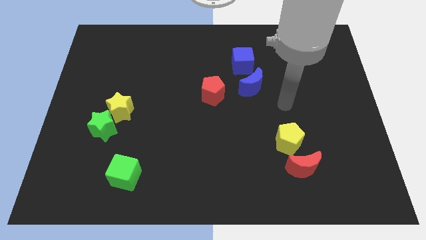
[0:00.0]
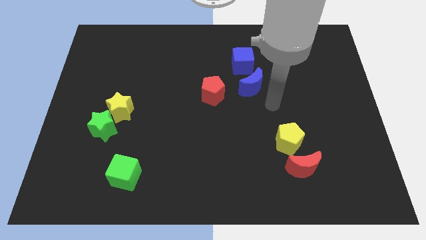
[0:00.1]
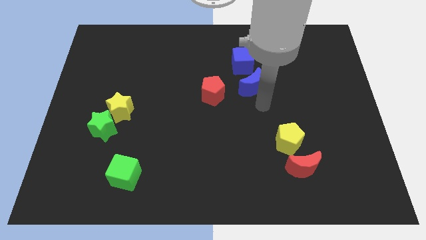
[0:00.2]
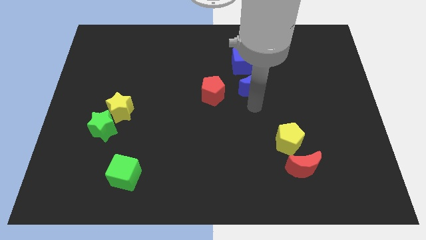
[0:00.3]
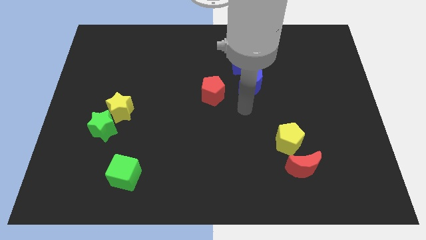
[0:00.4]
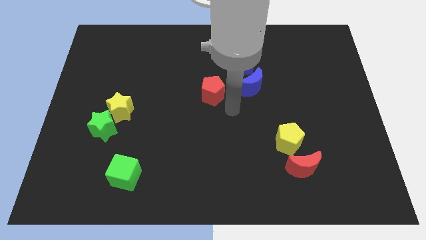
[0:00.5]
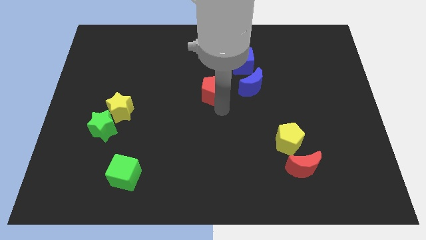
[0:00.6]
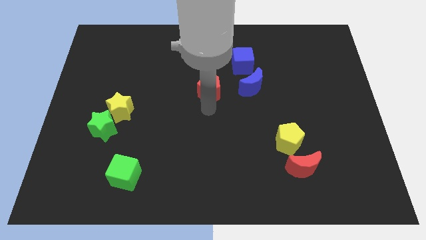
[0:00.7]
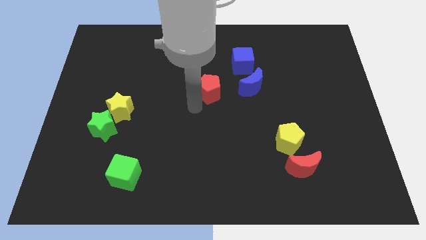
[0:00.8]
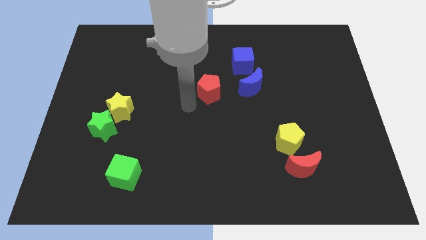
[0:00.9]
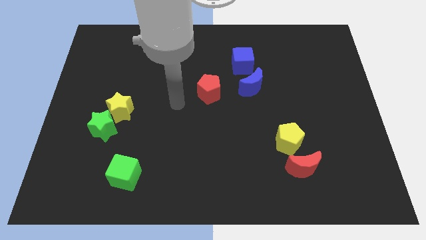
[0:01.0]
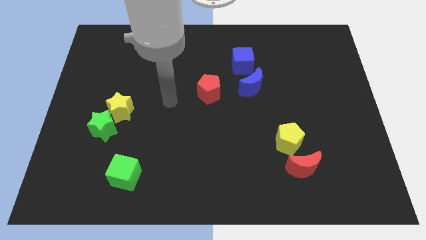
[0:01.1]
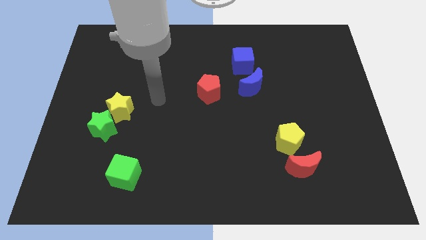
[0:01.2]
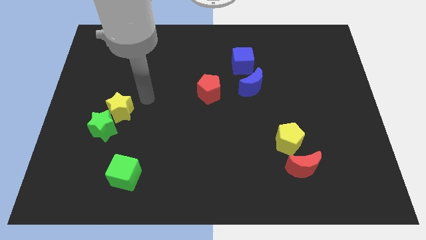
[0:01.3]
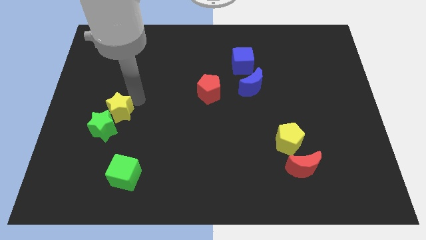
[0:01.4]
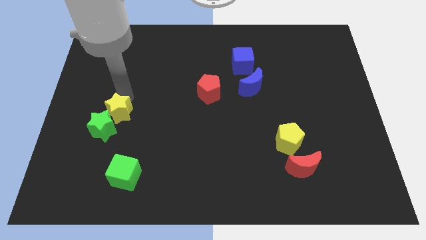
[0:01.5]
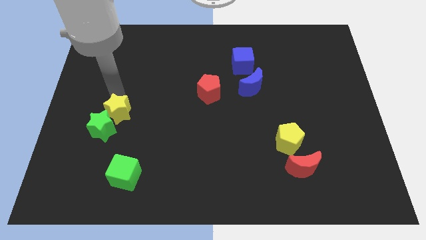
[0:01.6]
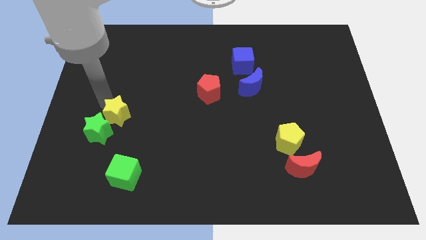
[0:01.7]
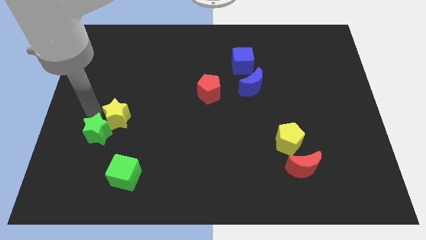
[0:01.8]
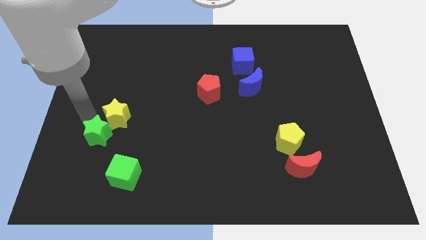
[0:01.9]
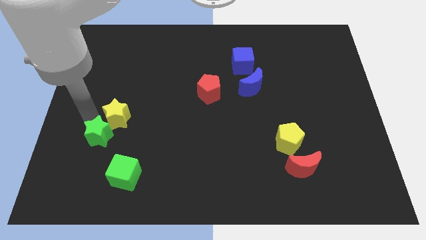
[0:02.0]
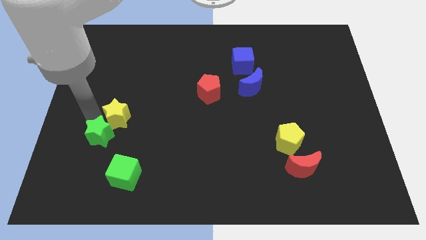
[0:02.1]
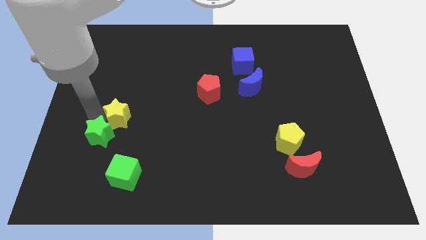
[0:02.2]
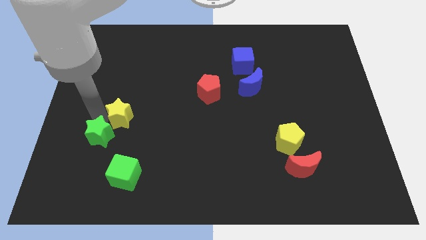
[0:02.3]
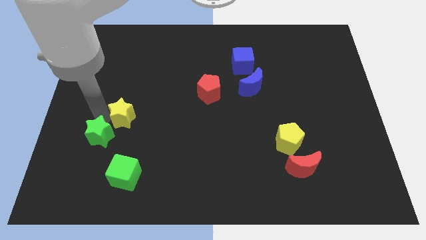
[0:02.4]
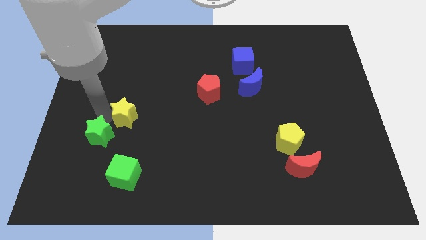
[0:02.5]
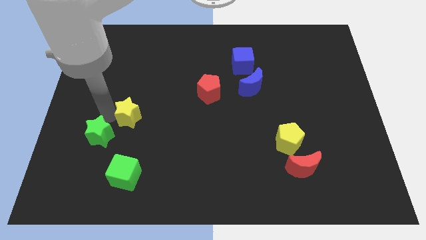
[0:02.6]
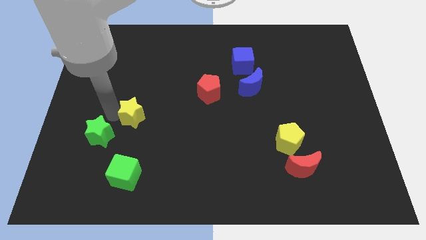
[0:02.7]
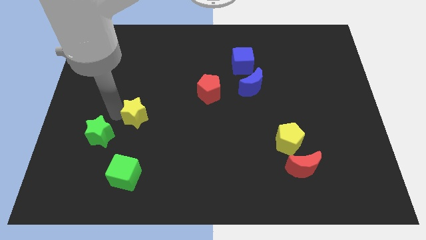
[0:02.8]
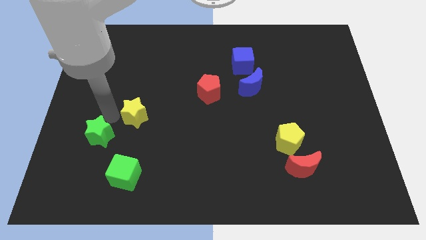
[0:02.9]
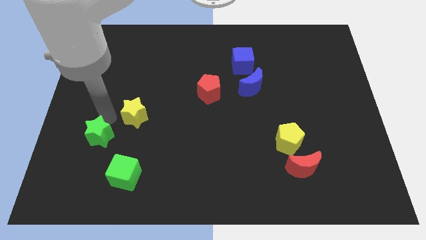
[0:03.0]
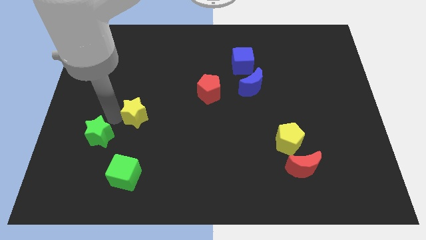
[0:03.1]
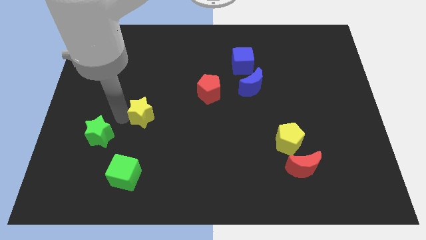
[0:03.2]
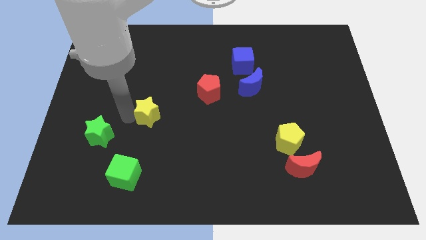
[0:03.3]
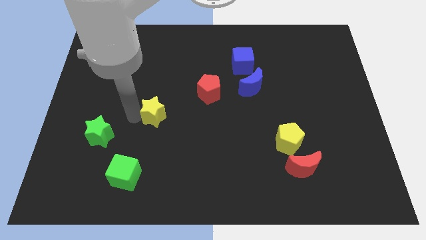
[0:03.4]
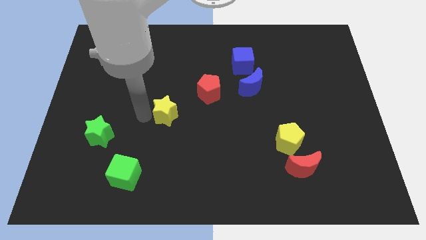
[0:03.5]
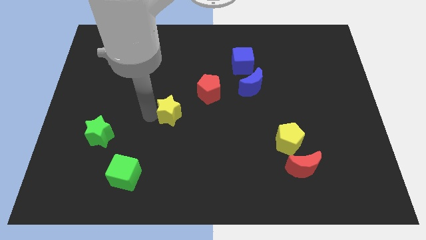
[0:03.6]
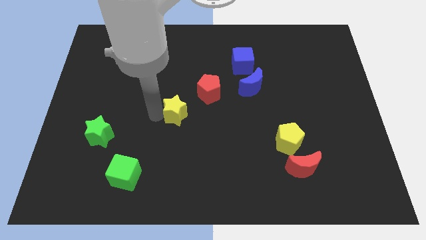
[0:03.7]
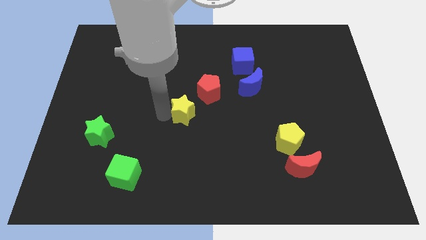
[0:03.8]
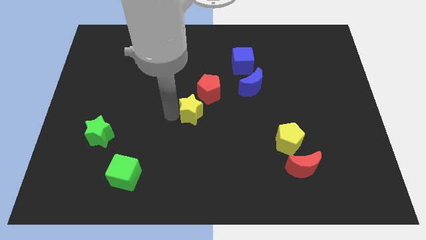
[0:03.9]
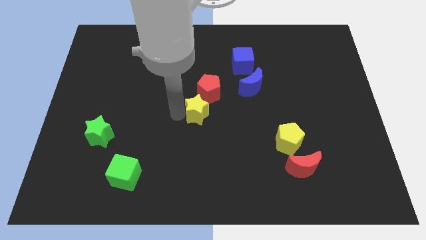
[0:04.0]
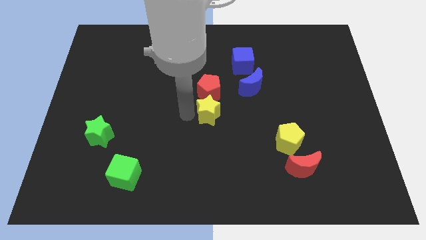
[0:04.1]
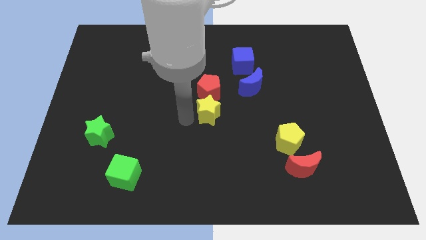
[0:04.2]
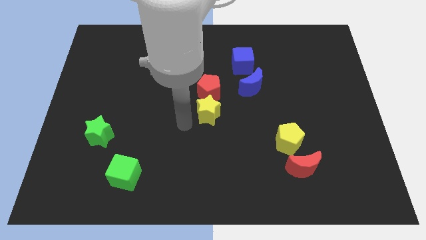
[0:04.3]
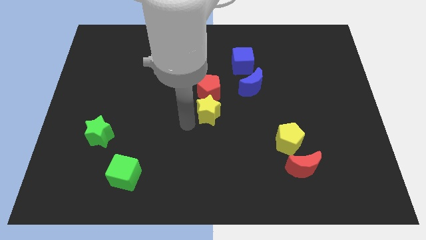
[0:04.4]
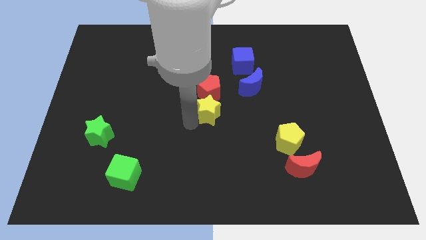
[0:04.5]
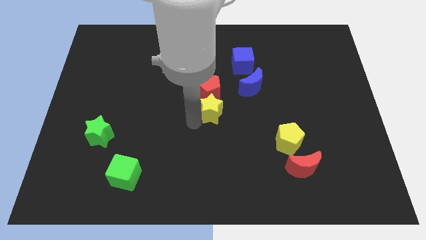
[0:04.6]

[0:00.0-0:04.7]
push the yellow star to the bottom left of the blue moon

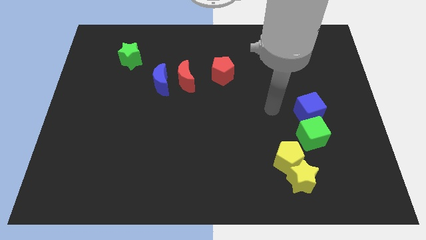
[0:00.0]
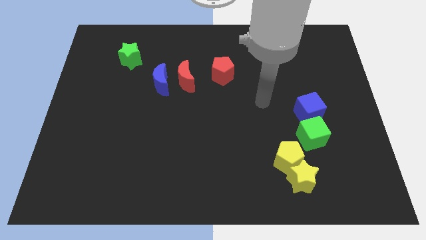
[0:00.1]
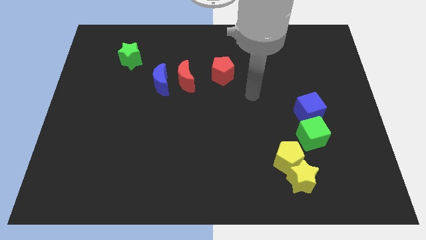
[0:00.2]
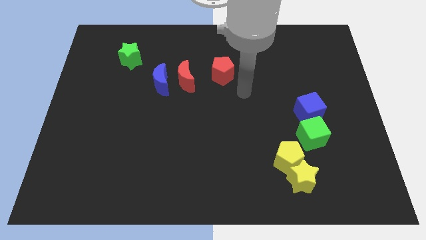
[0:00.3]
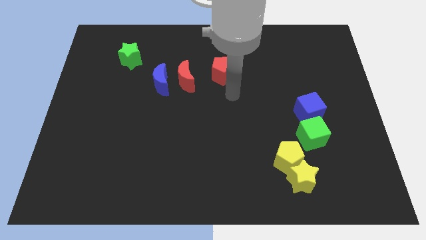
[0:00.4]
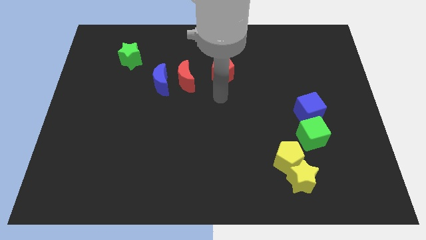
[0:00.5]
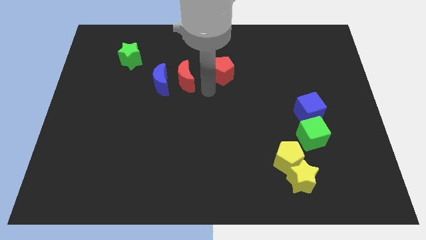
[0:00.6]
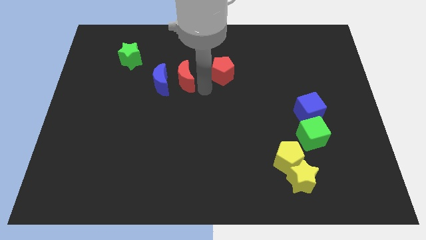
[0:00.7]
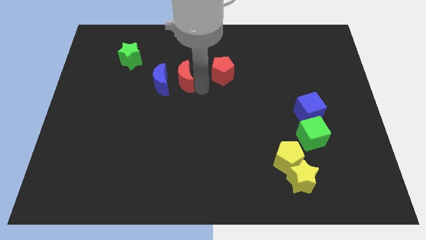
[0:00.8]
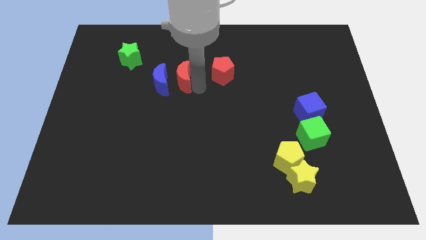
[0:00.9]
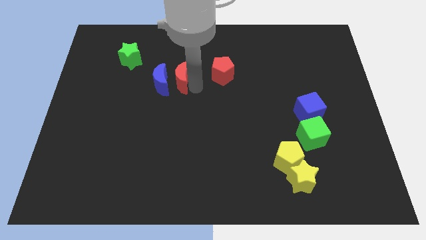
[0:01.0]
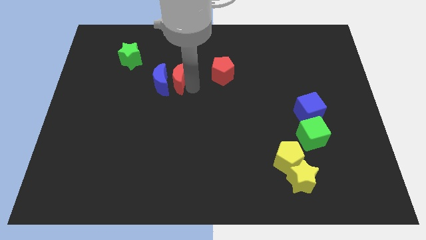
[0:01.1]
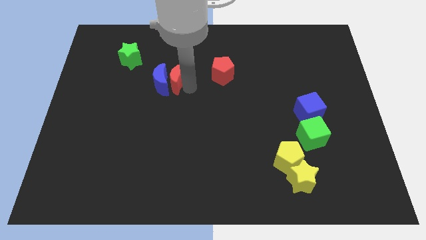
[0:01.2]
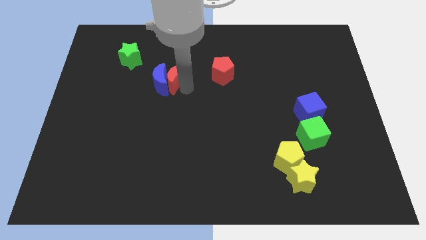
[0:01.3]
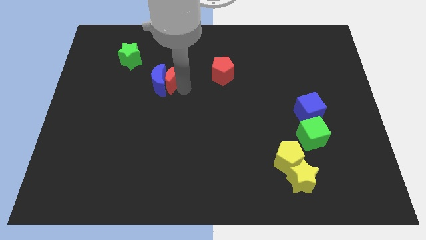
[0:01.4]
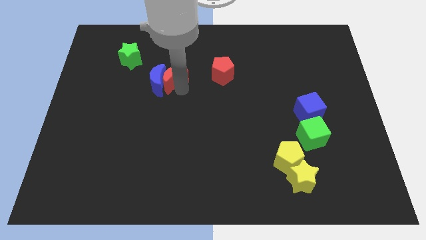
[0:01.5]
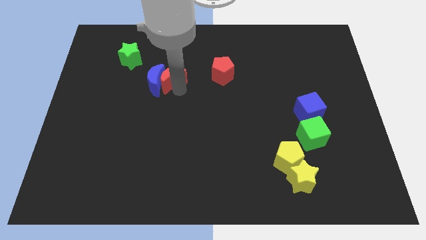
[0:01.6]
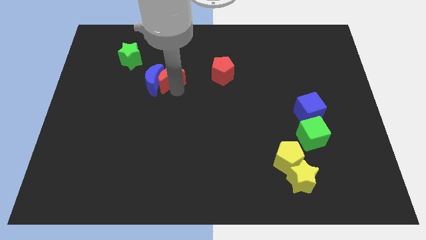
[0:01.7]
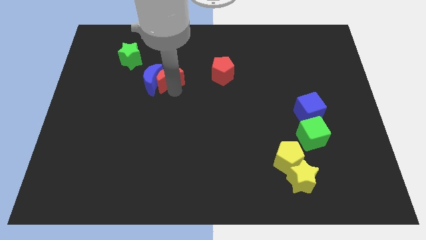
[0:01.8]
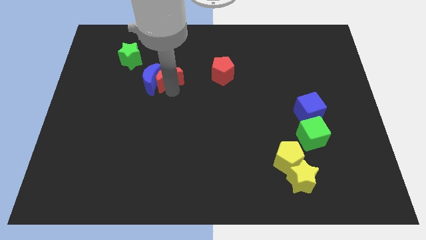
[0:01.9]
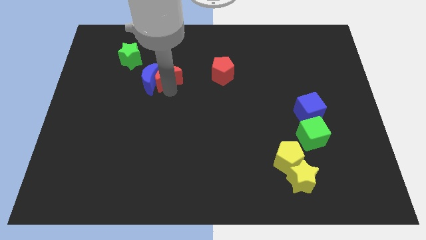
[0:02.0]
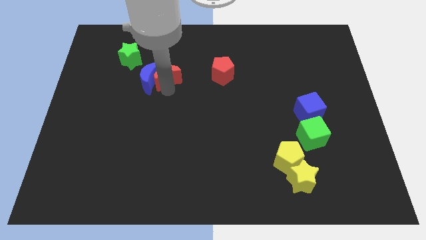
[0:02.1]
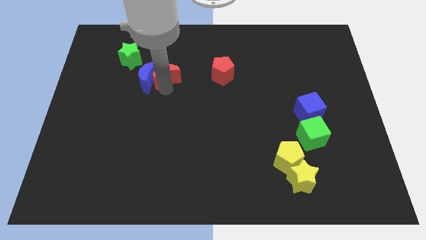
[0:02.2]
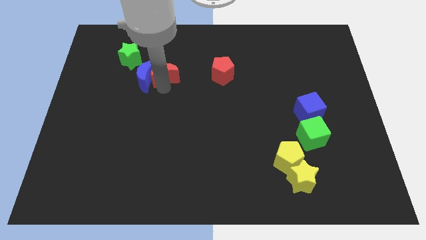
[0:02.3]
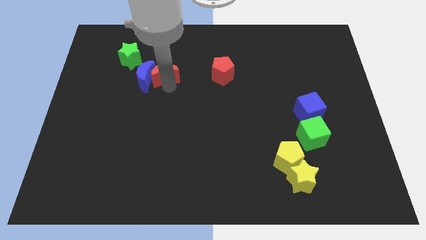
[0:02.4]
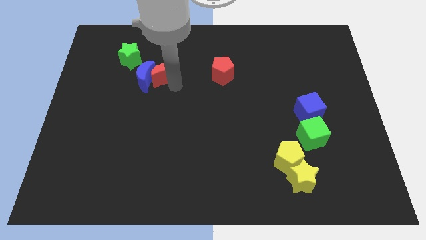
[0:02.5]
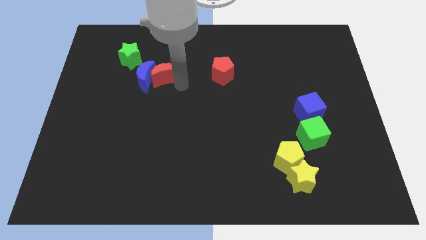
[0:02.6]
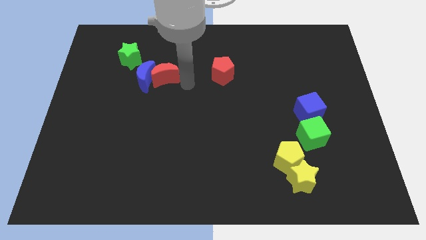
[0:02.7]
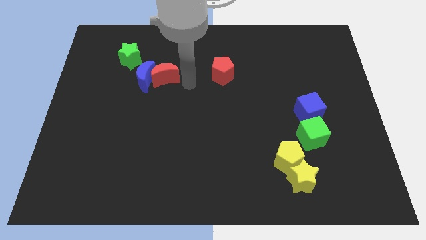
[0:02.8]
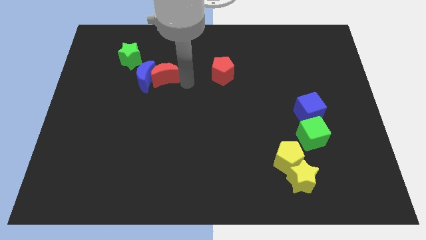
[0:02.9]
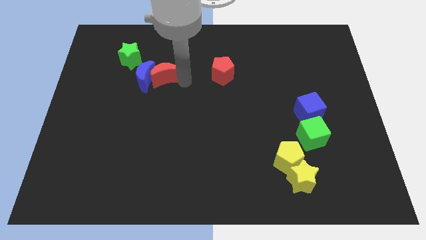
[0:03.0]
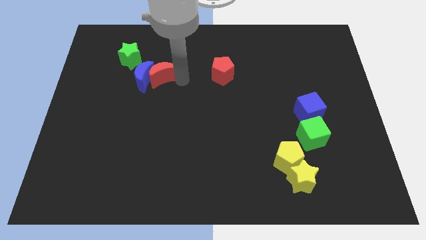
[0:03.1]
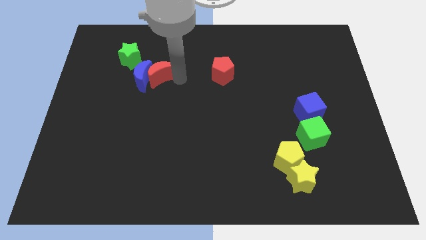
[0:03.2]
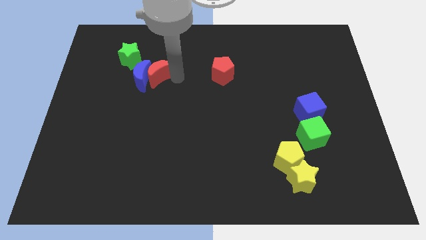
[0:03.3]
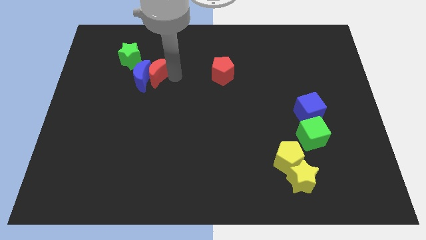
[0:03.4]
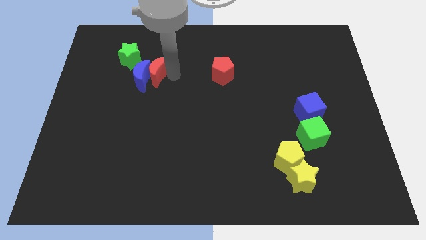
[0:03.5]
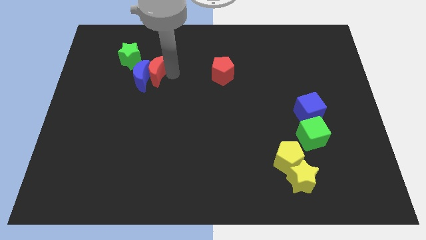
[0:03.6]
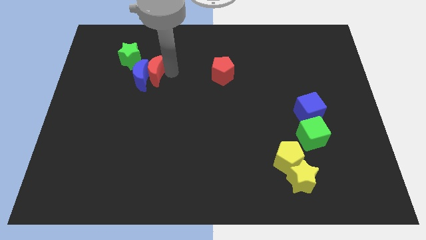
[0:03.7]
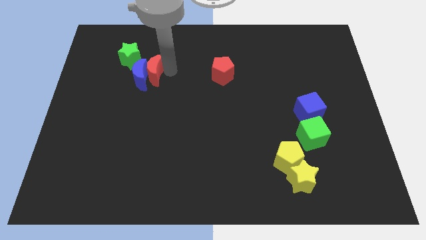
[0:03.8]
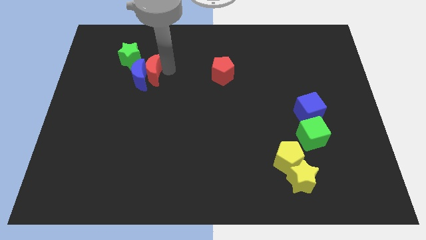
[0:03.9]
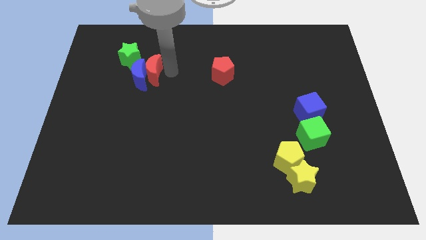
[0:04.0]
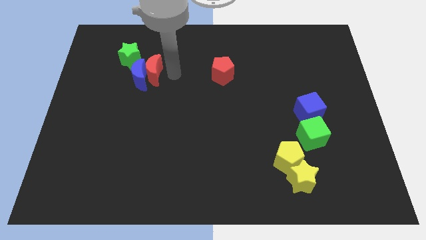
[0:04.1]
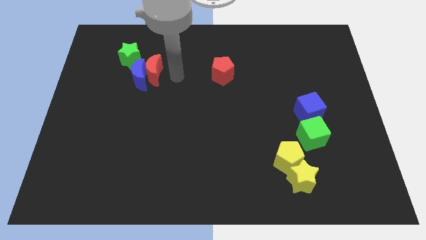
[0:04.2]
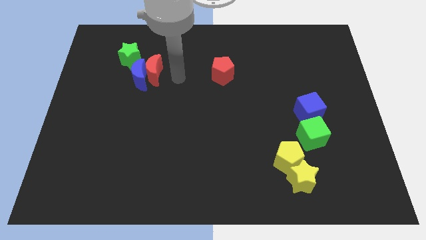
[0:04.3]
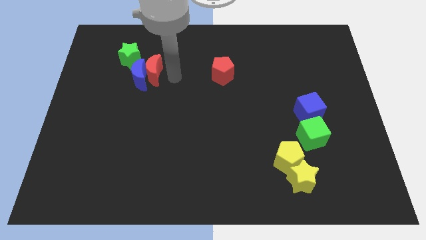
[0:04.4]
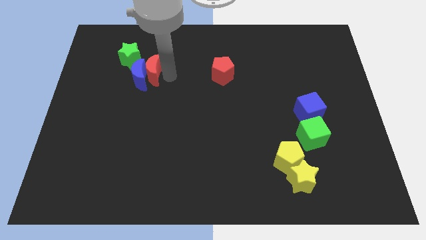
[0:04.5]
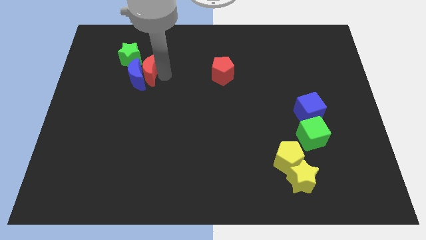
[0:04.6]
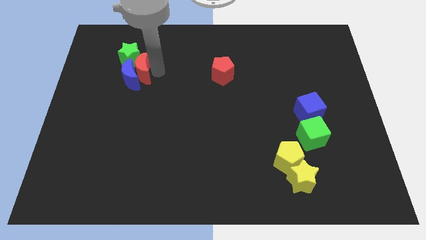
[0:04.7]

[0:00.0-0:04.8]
push the red moon to the bottom side of the green star
